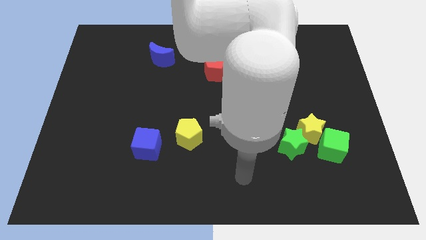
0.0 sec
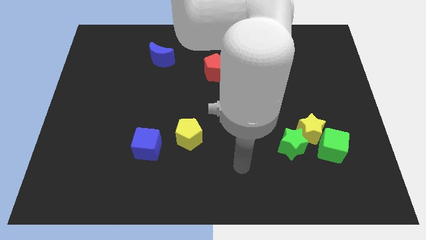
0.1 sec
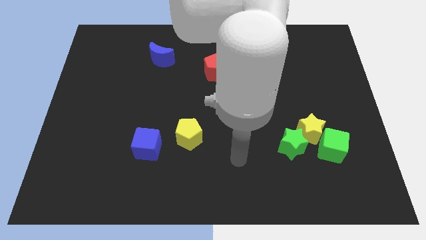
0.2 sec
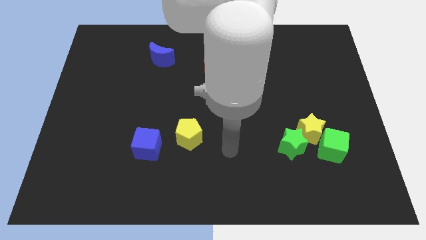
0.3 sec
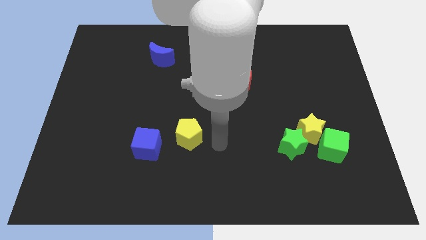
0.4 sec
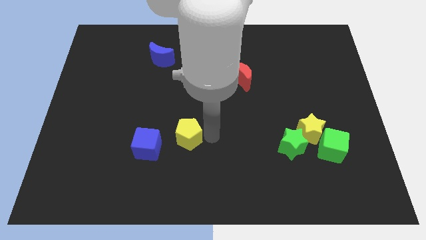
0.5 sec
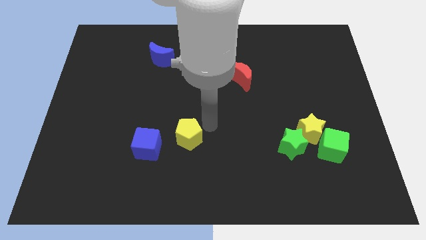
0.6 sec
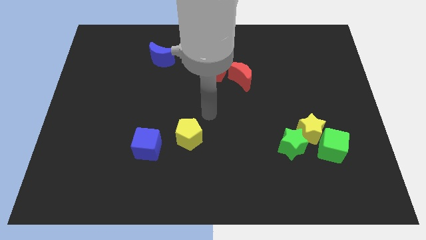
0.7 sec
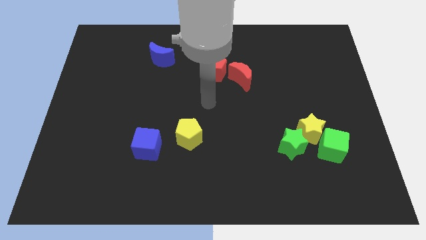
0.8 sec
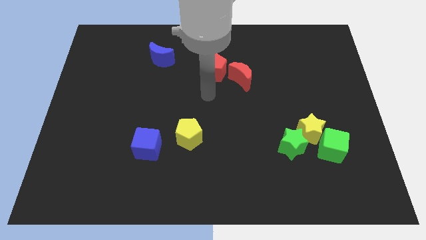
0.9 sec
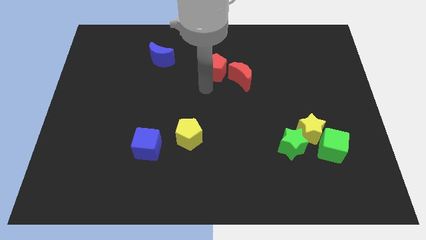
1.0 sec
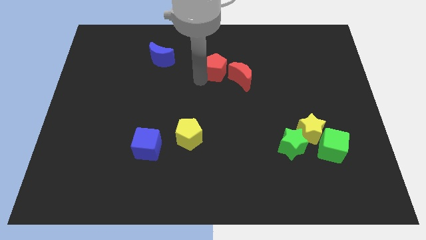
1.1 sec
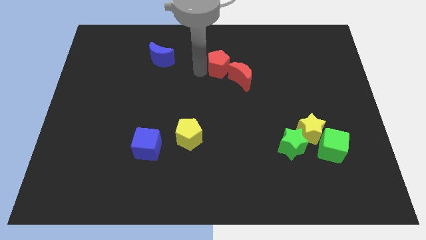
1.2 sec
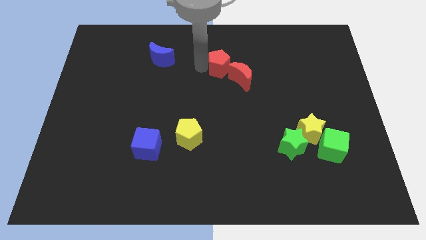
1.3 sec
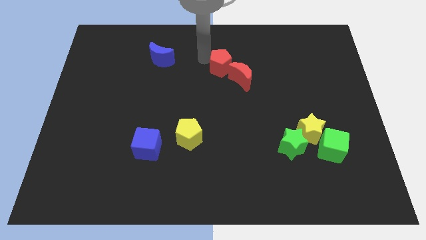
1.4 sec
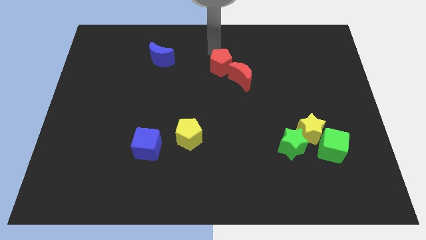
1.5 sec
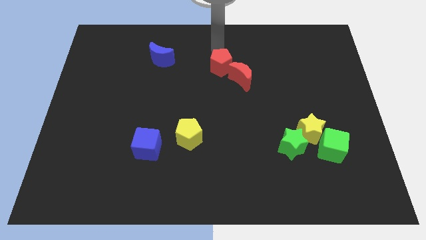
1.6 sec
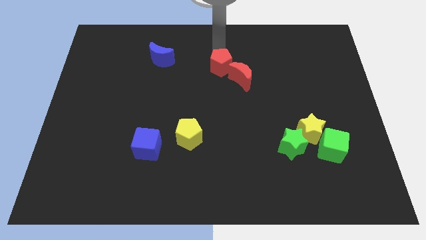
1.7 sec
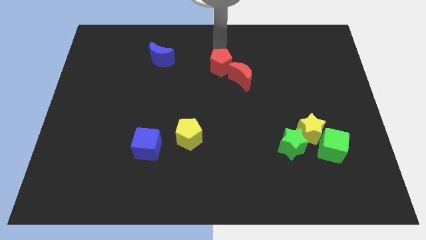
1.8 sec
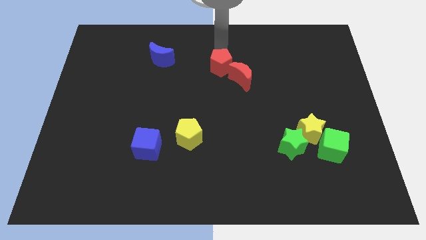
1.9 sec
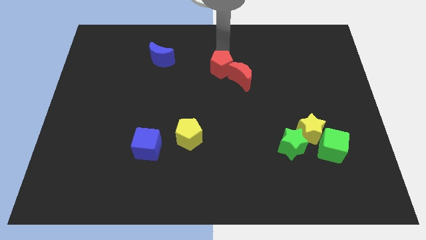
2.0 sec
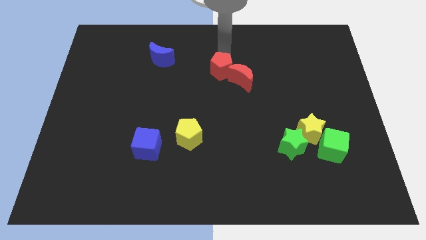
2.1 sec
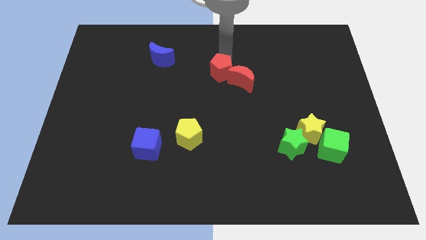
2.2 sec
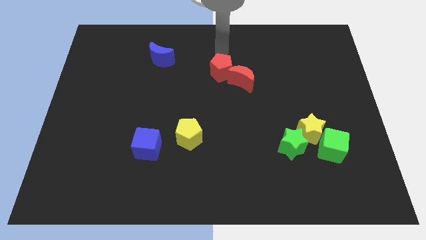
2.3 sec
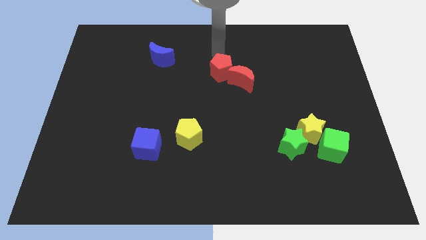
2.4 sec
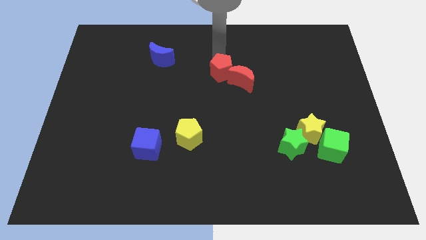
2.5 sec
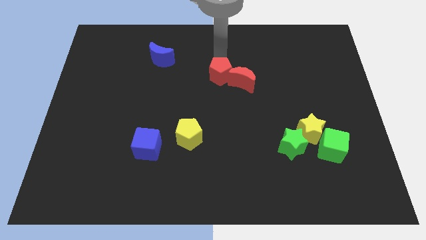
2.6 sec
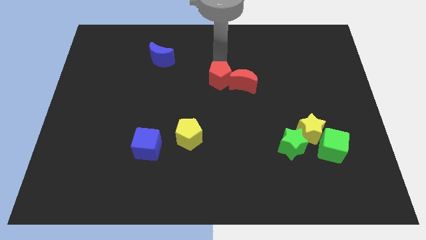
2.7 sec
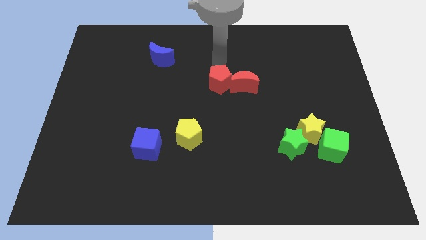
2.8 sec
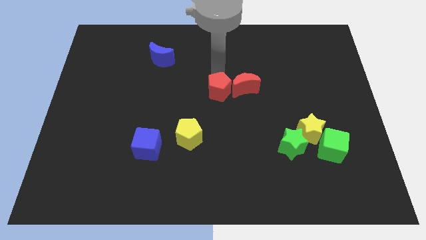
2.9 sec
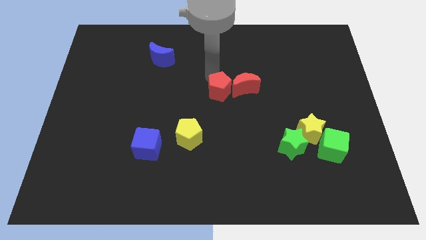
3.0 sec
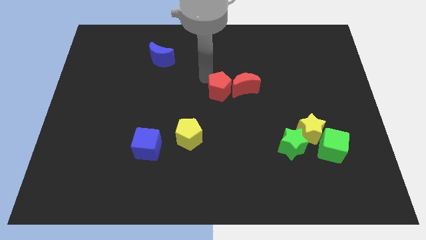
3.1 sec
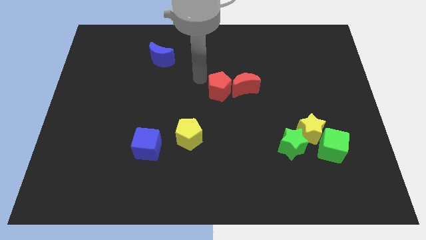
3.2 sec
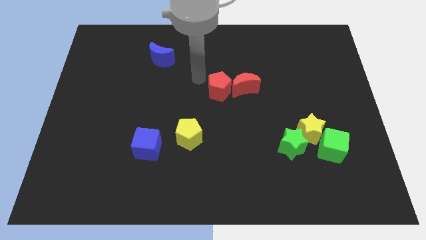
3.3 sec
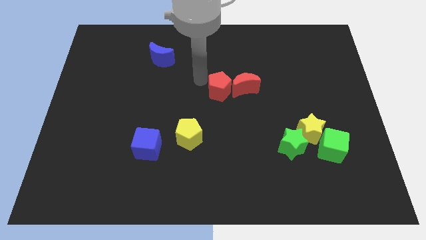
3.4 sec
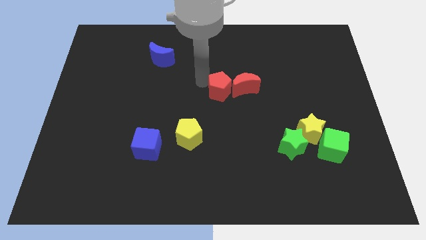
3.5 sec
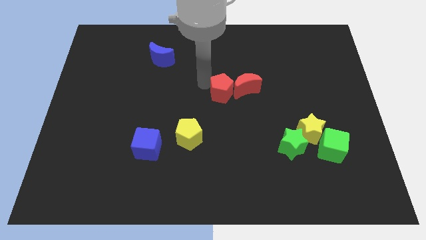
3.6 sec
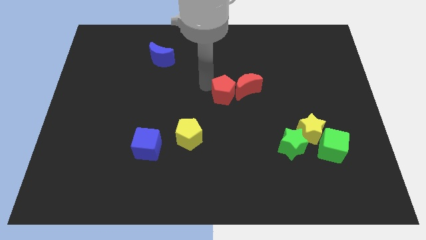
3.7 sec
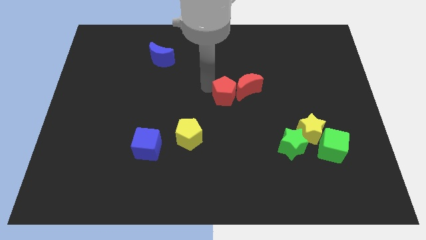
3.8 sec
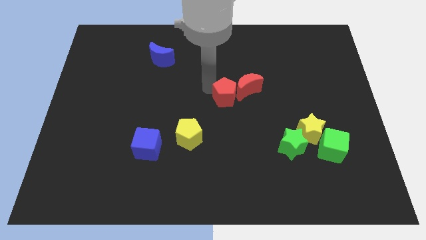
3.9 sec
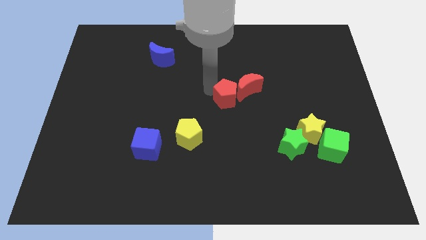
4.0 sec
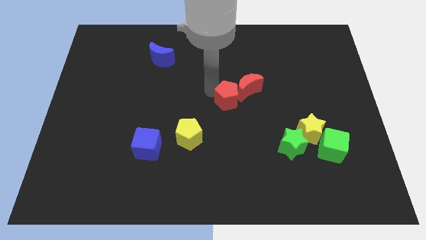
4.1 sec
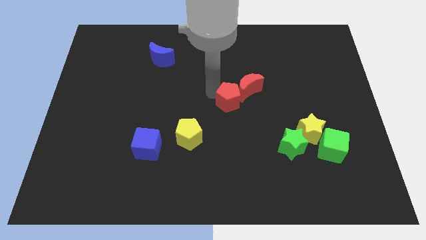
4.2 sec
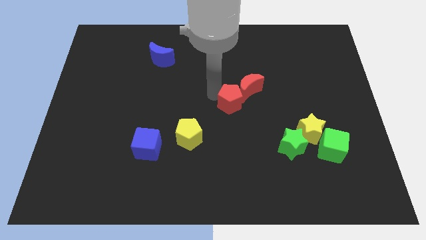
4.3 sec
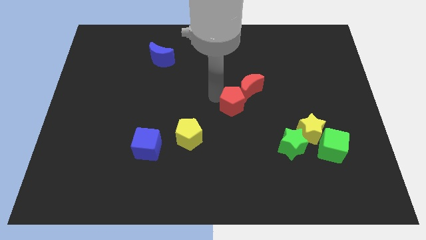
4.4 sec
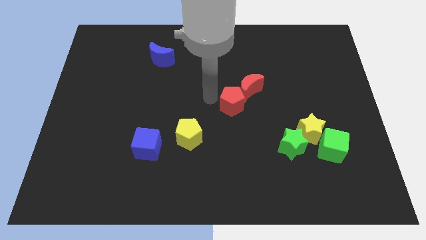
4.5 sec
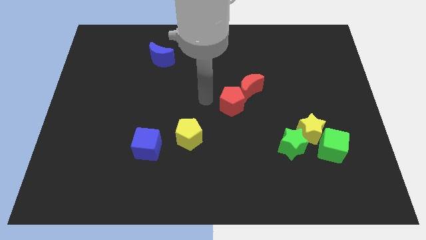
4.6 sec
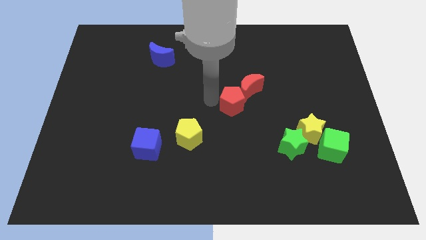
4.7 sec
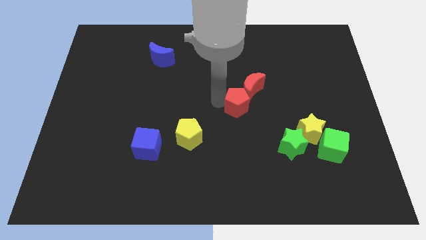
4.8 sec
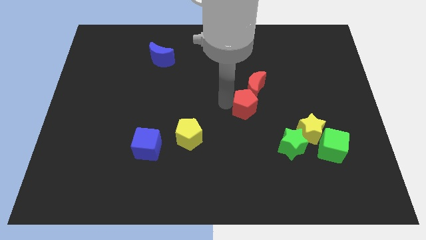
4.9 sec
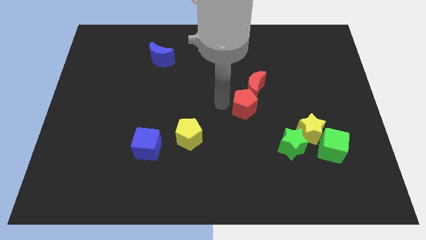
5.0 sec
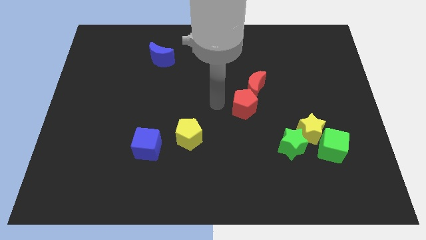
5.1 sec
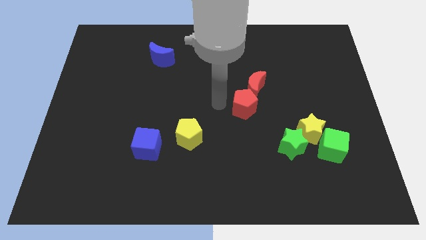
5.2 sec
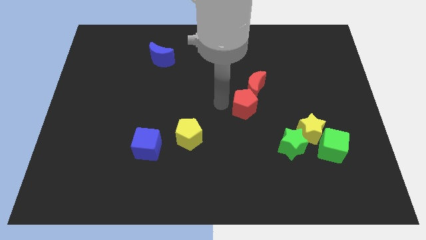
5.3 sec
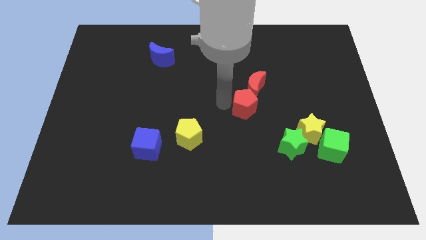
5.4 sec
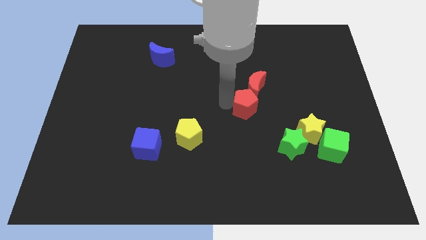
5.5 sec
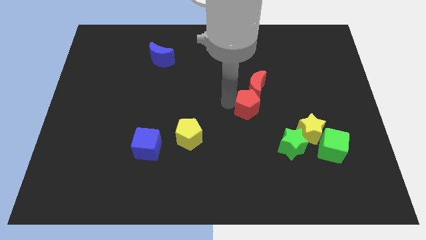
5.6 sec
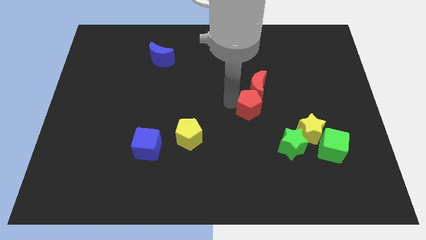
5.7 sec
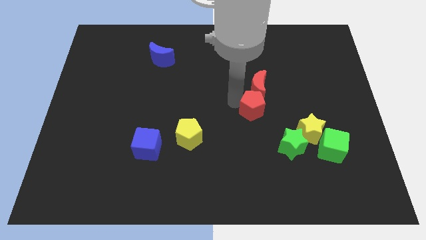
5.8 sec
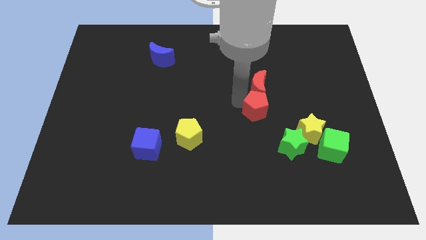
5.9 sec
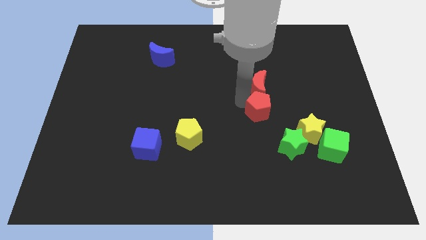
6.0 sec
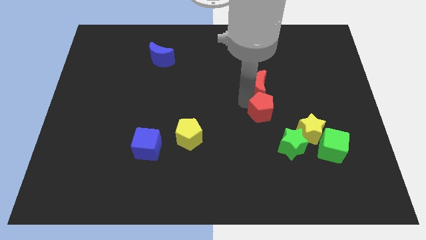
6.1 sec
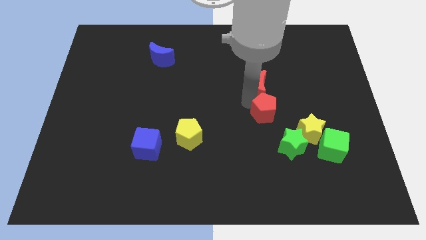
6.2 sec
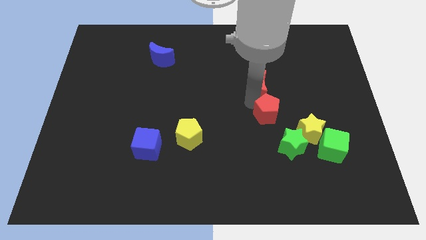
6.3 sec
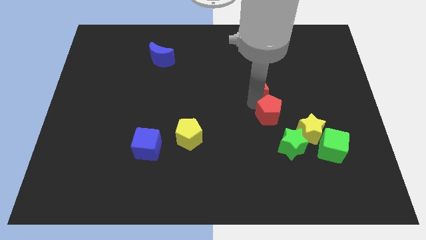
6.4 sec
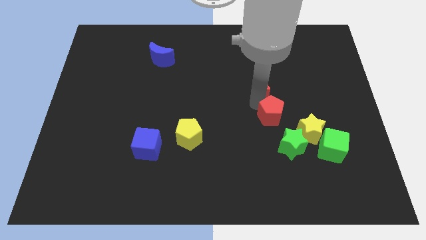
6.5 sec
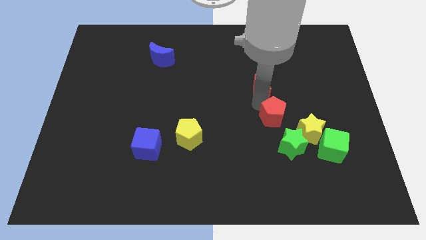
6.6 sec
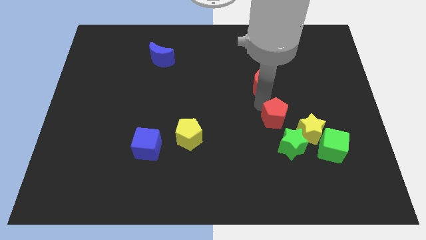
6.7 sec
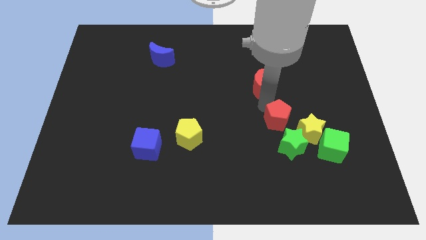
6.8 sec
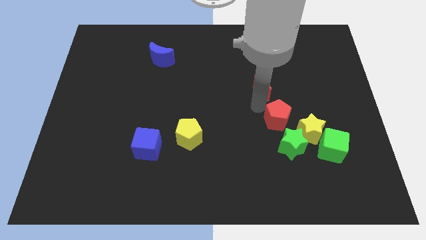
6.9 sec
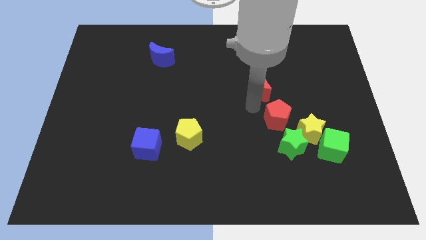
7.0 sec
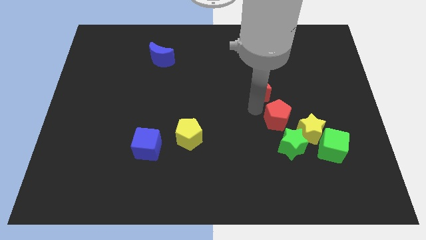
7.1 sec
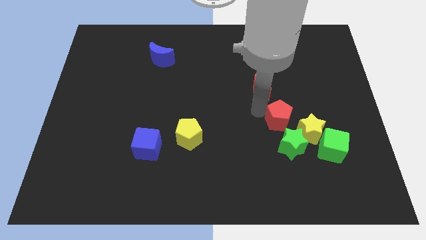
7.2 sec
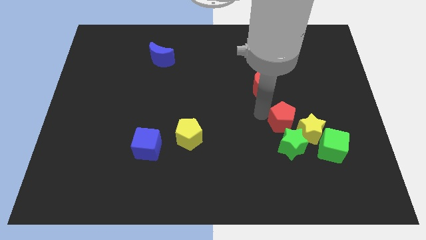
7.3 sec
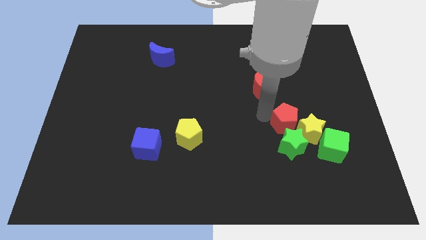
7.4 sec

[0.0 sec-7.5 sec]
put the red pentagon close to the yellow star
